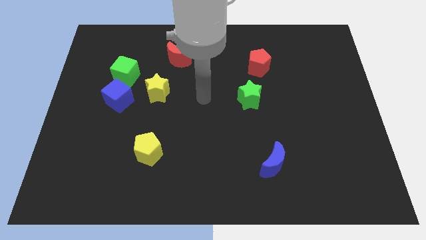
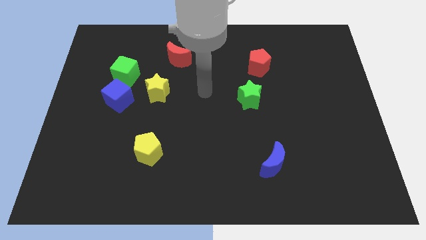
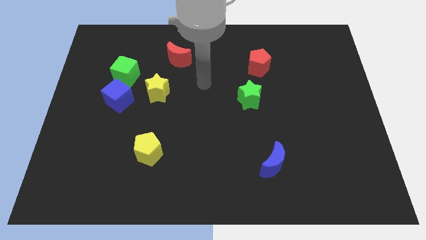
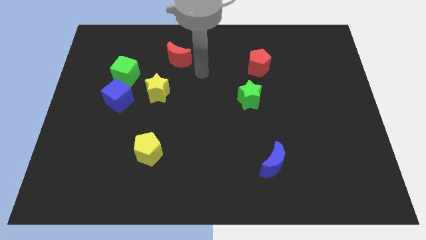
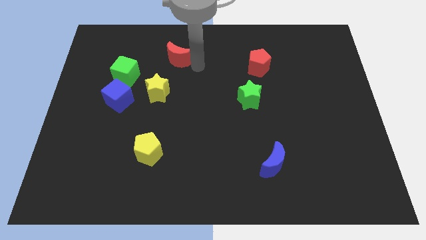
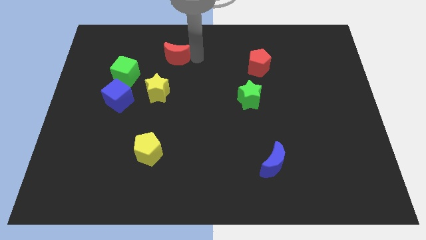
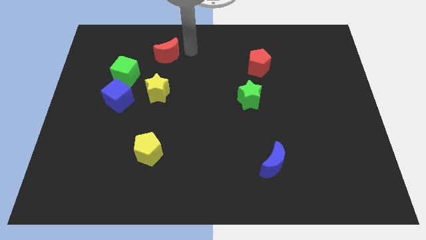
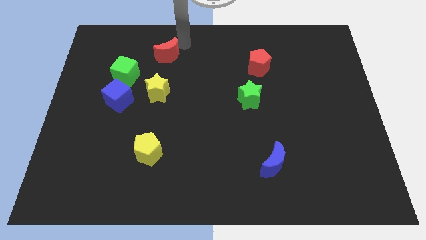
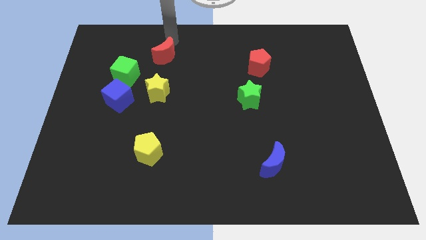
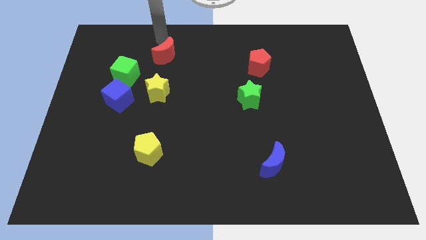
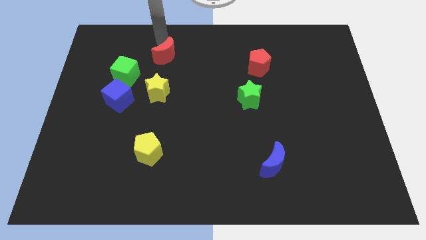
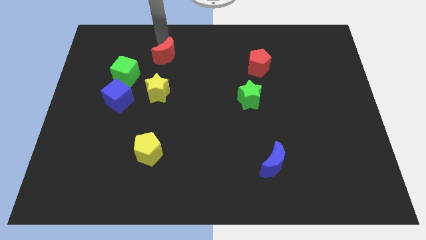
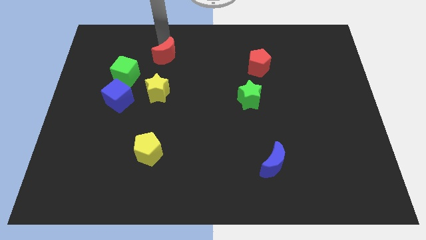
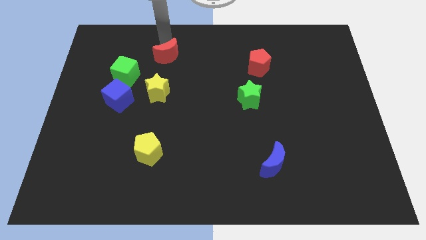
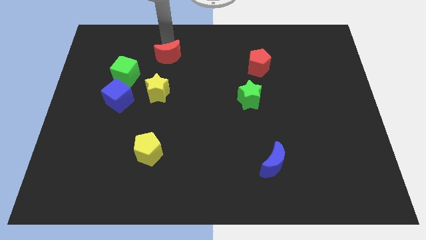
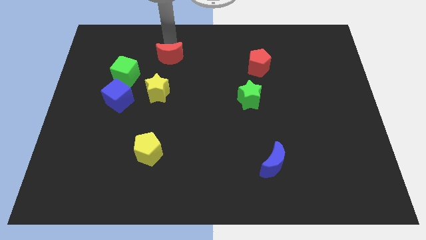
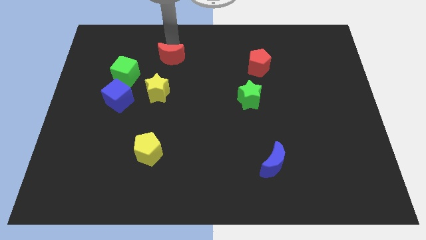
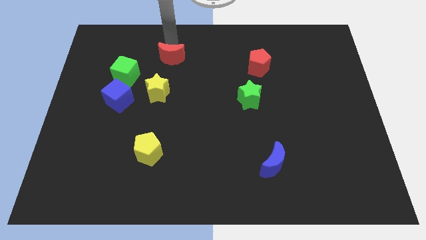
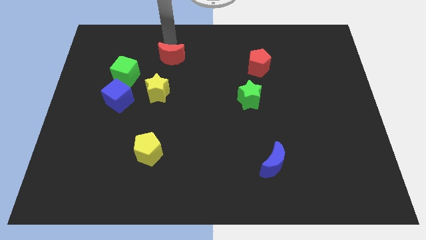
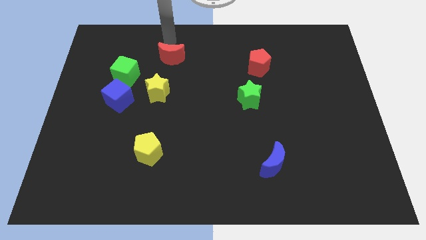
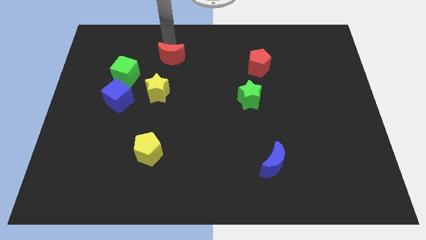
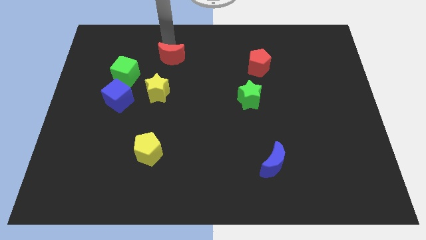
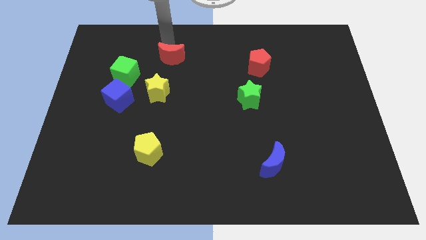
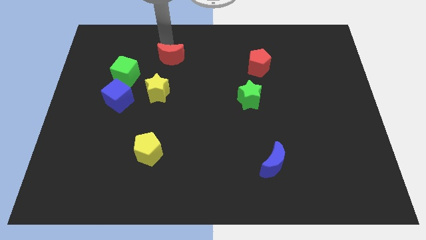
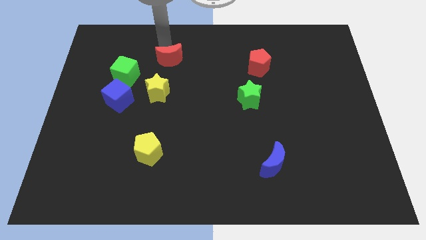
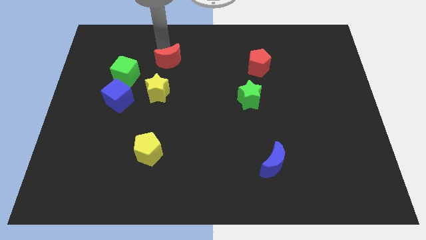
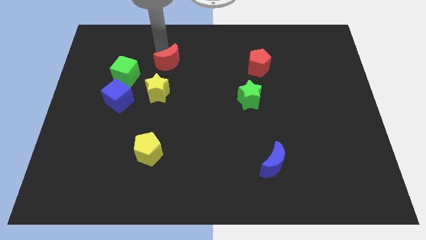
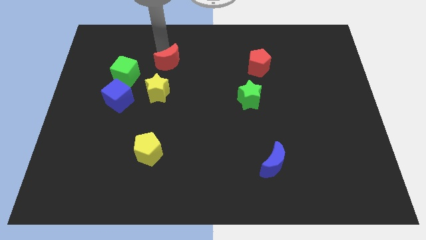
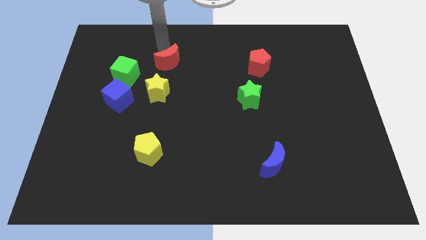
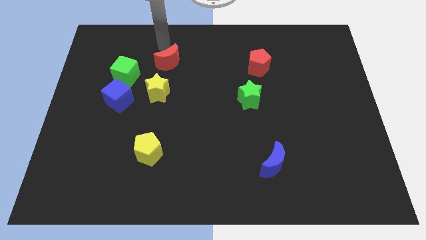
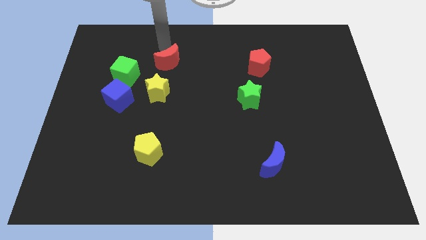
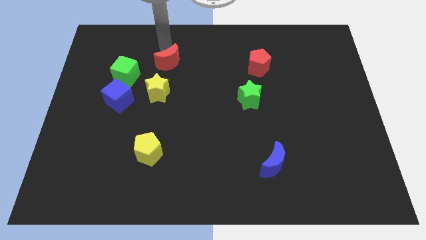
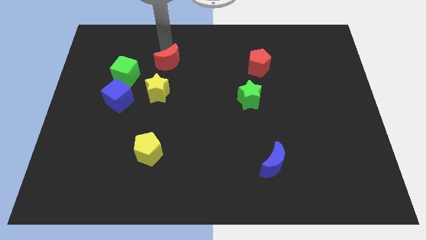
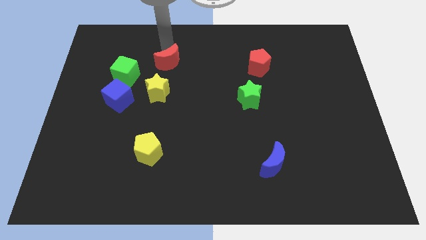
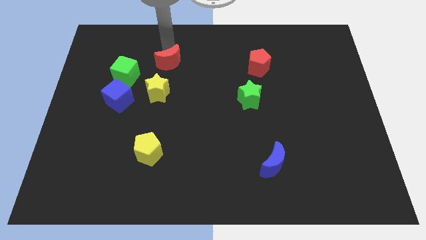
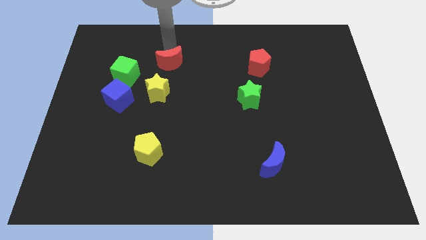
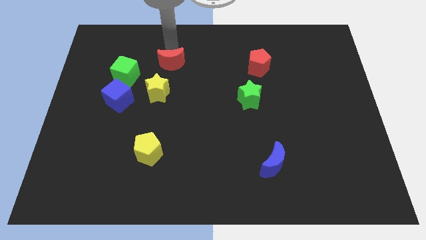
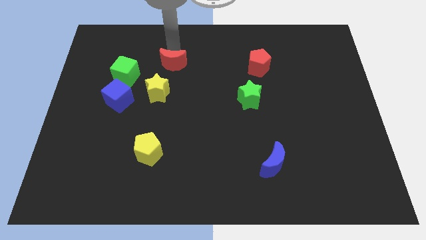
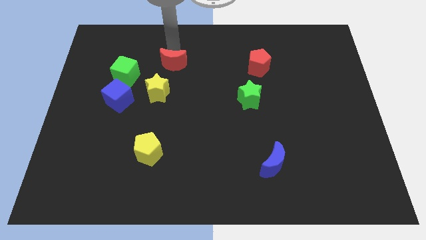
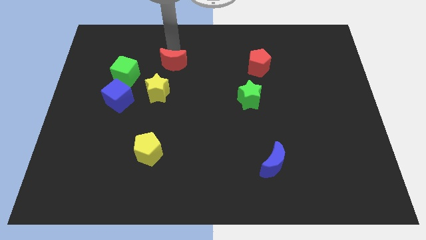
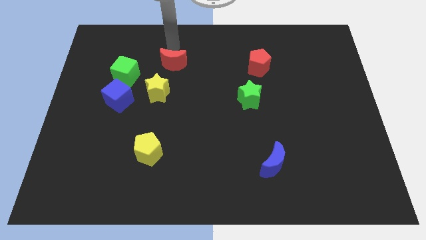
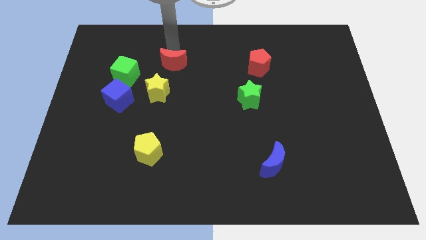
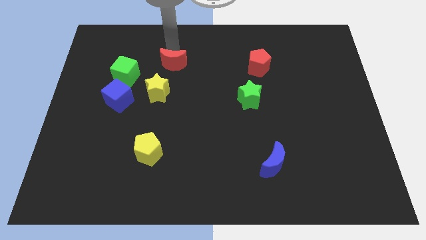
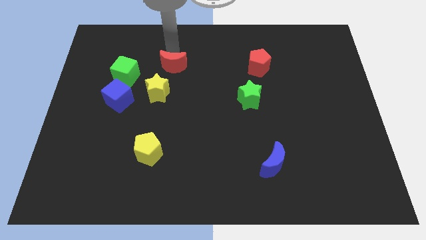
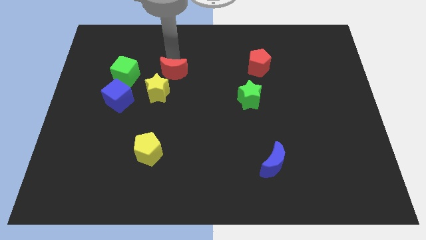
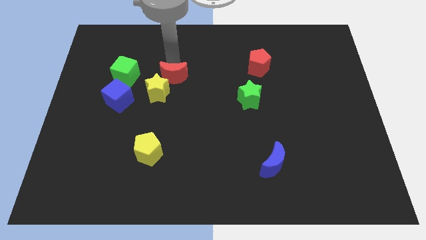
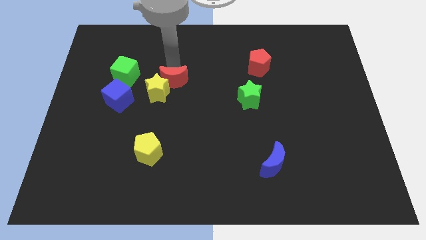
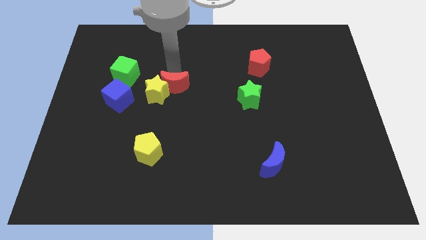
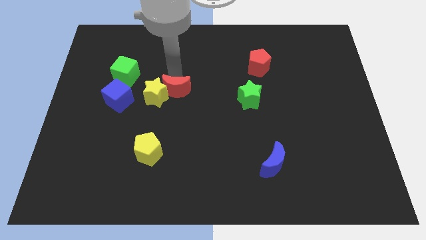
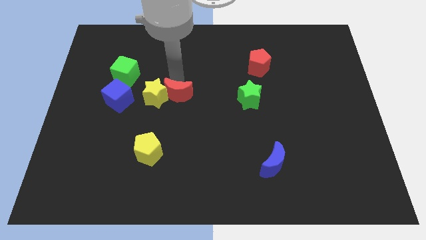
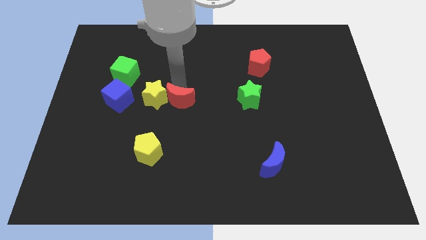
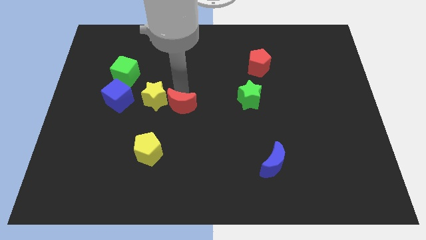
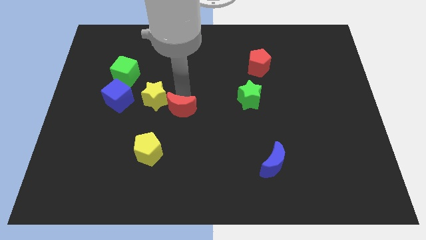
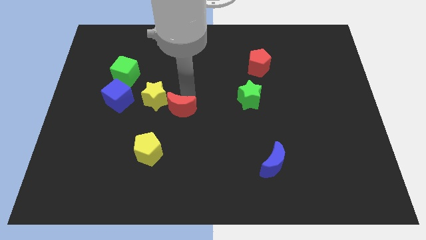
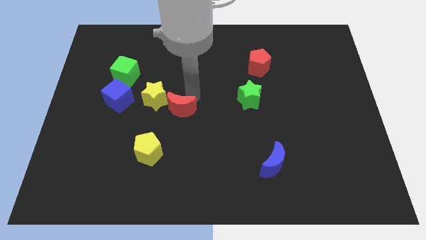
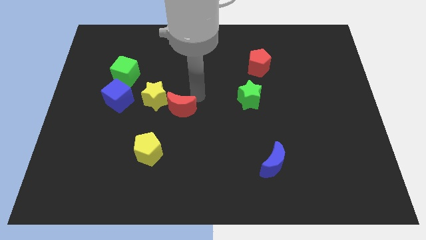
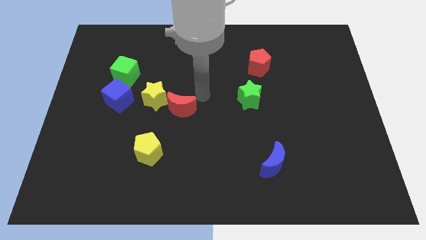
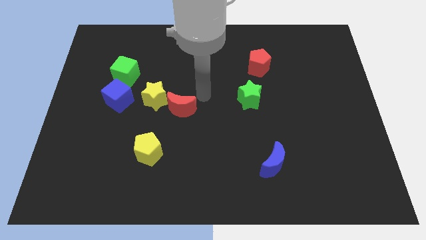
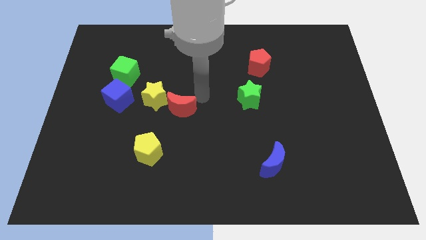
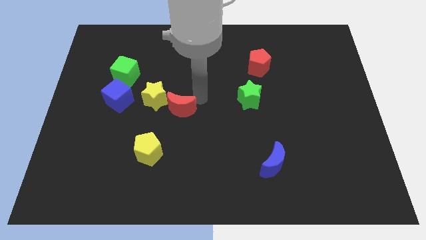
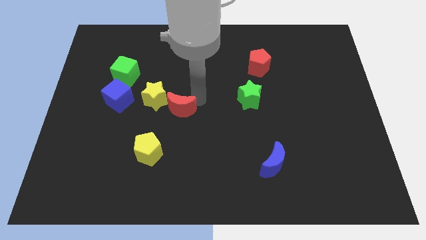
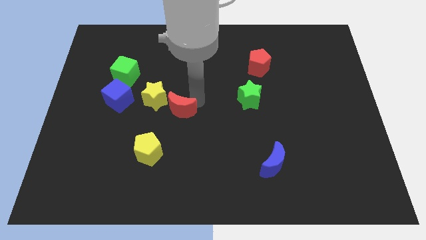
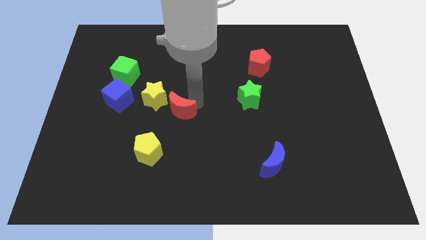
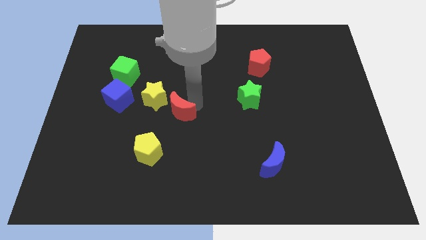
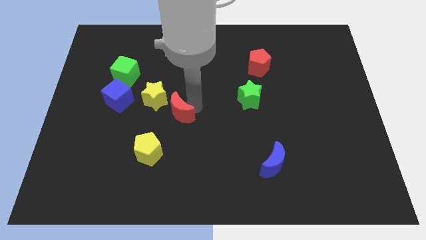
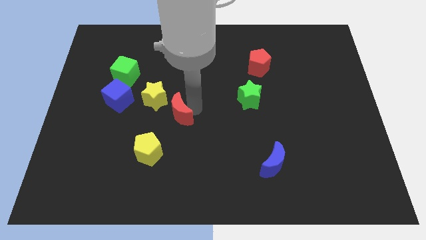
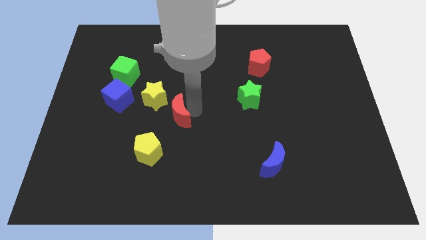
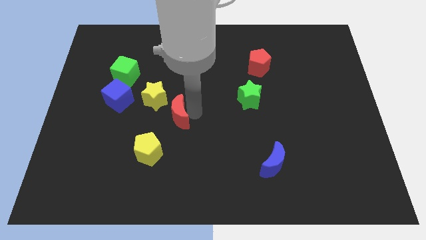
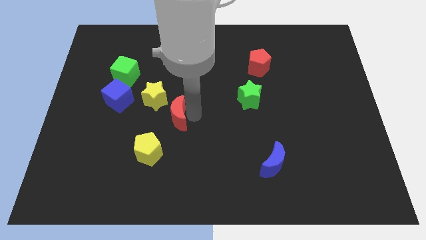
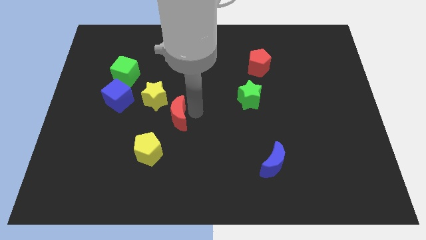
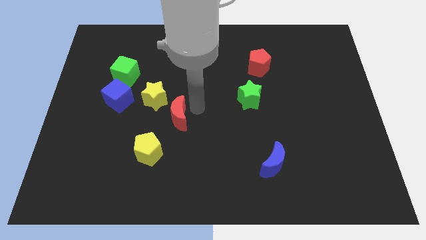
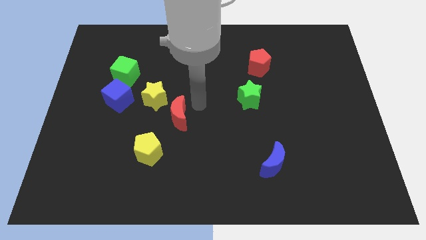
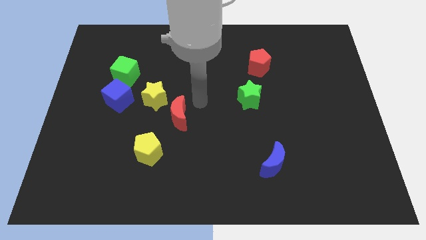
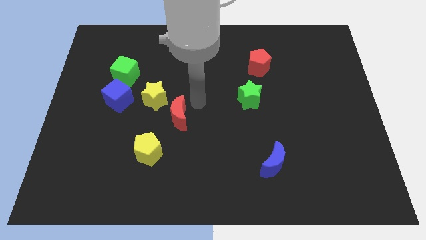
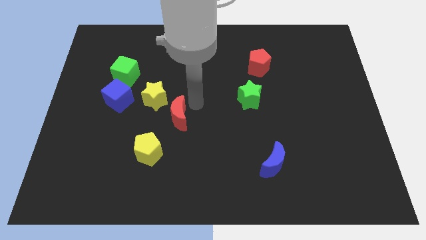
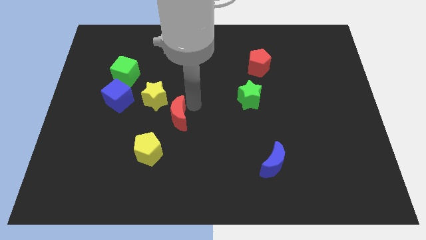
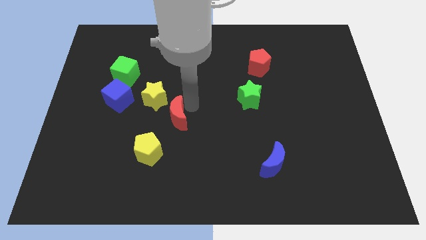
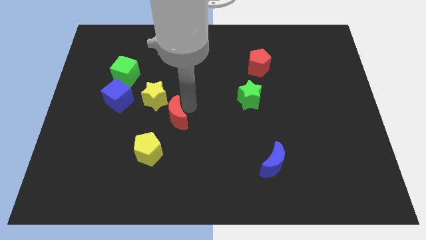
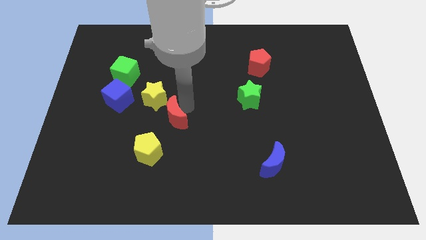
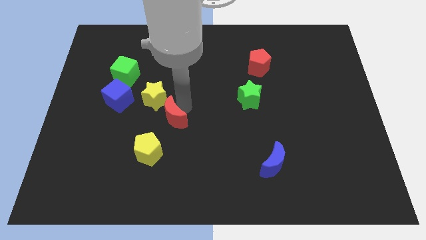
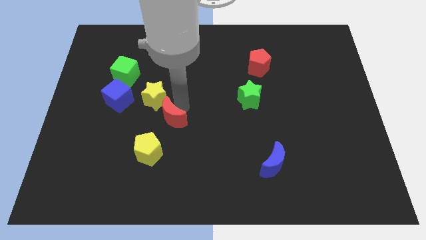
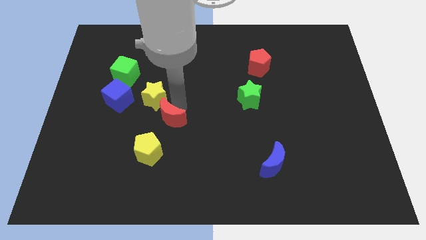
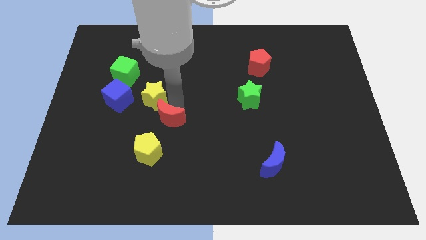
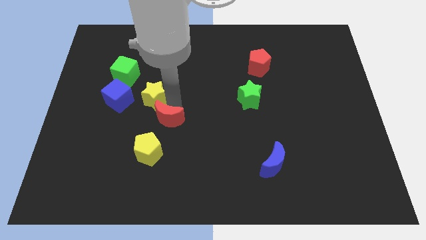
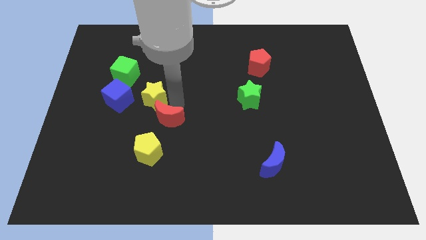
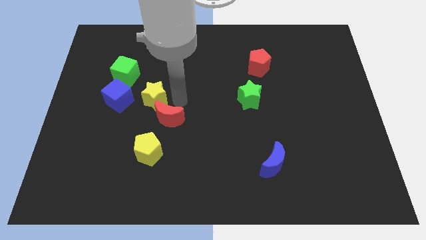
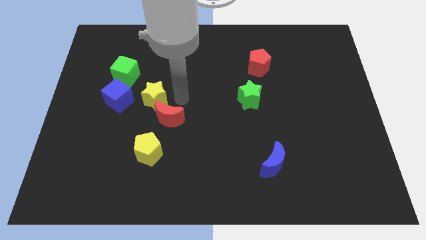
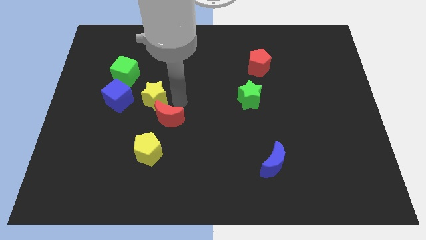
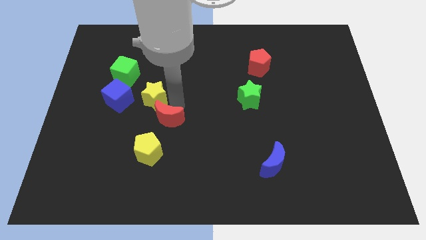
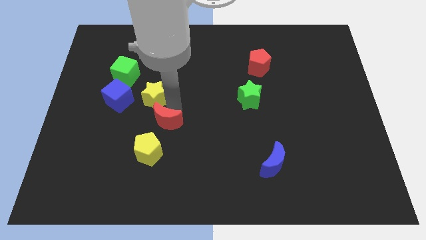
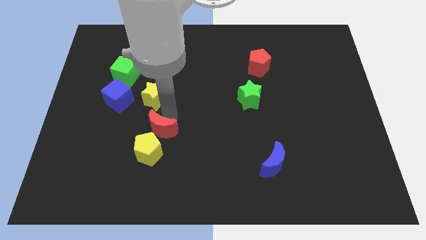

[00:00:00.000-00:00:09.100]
slide the red moon to the yellow pentagon
